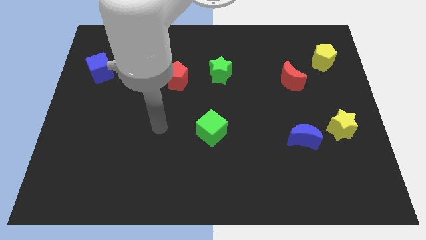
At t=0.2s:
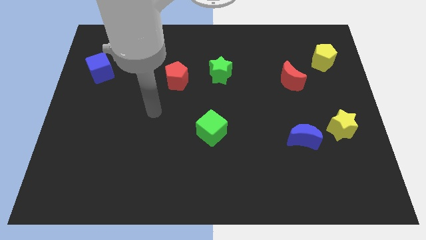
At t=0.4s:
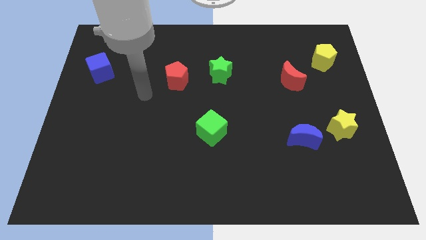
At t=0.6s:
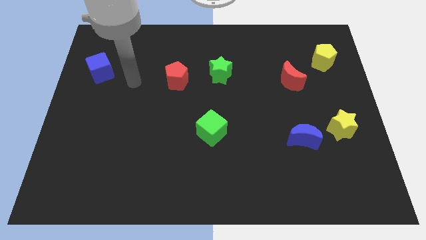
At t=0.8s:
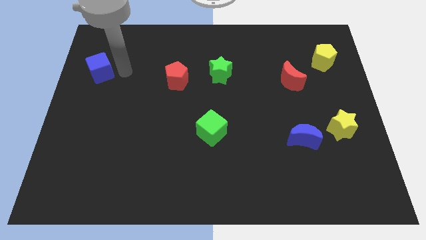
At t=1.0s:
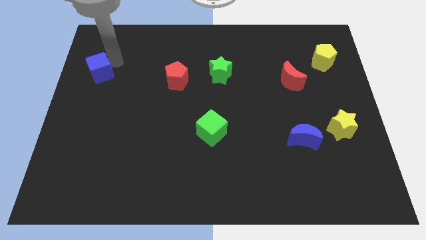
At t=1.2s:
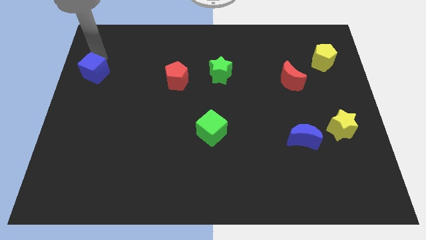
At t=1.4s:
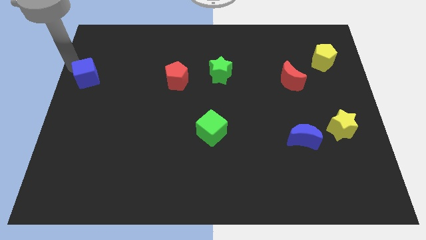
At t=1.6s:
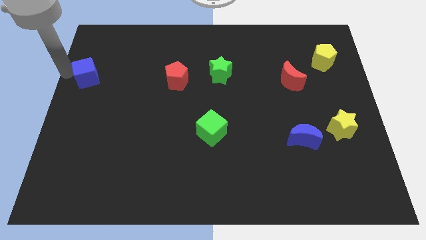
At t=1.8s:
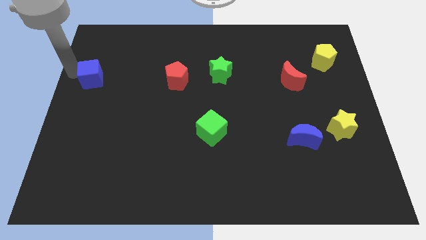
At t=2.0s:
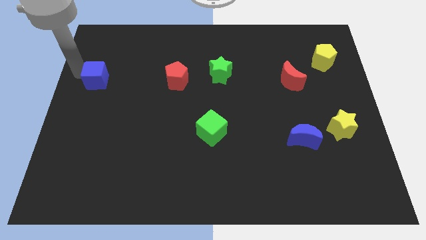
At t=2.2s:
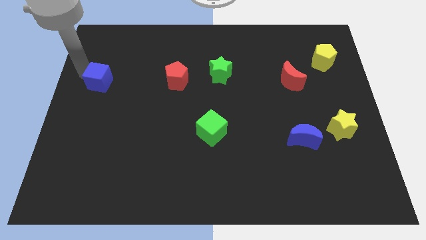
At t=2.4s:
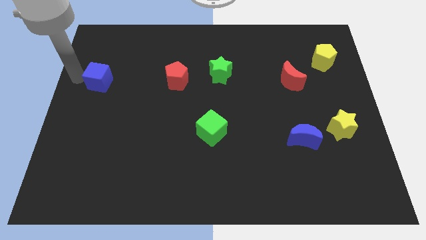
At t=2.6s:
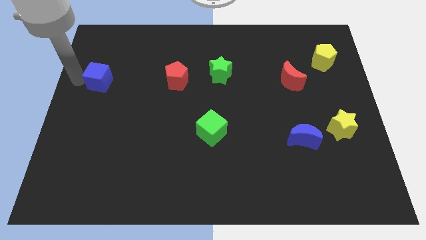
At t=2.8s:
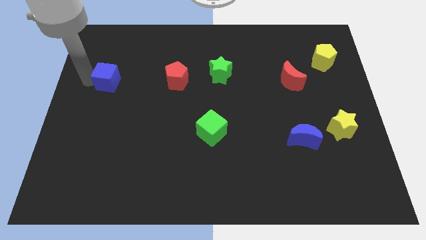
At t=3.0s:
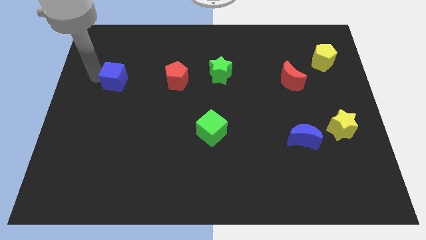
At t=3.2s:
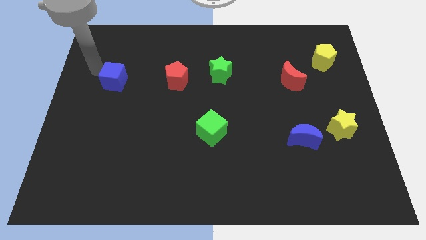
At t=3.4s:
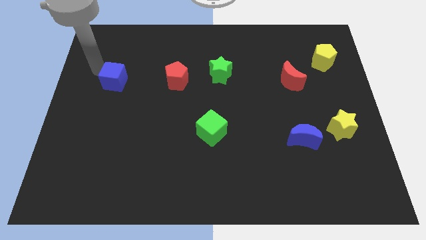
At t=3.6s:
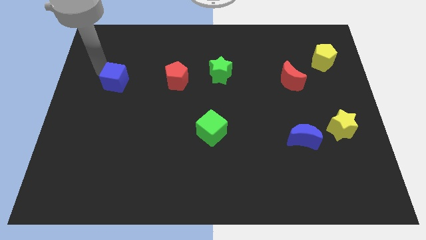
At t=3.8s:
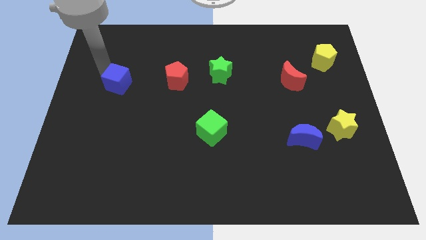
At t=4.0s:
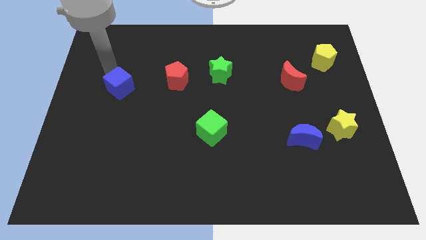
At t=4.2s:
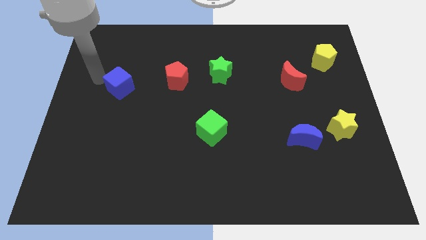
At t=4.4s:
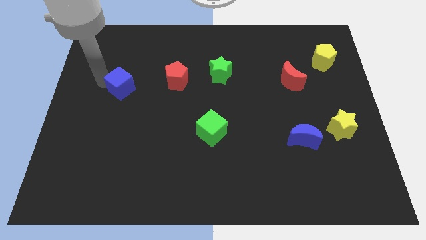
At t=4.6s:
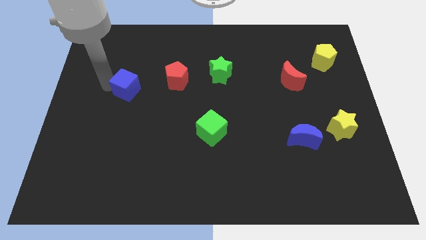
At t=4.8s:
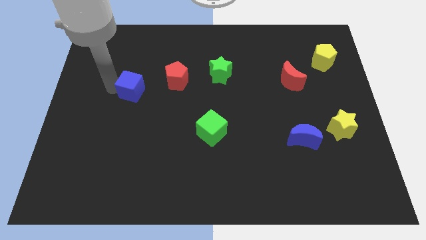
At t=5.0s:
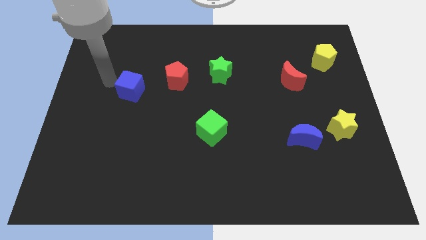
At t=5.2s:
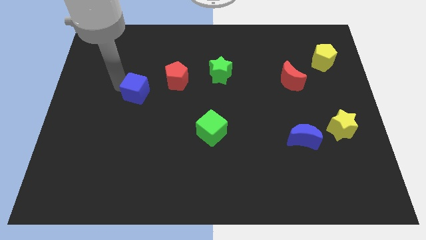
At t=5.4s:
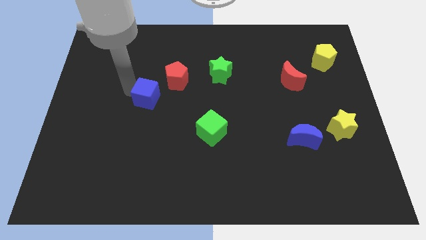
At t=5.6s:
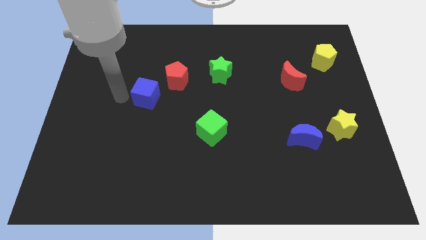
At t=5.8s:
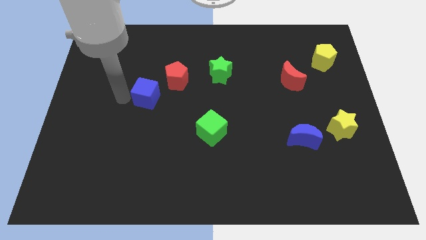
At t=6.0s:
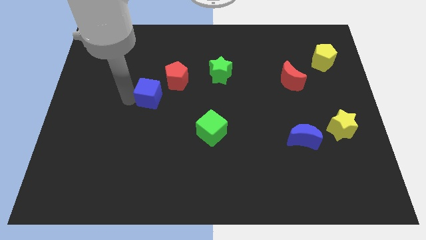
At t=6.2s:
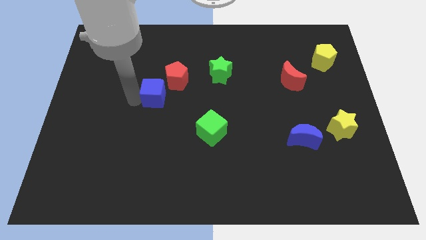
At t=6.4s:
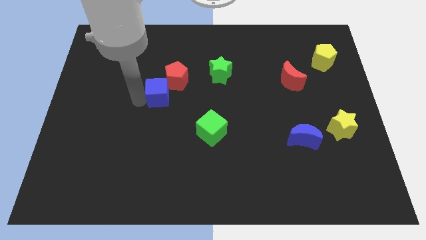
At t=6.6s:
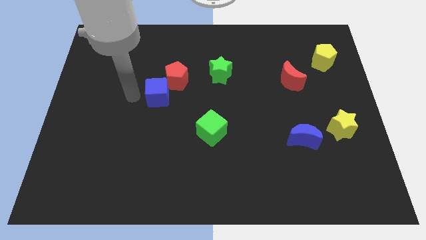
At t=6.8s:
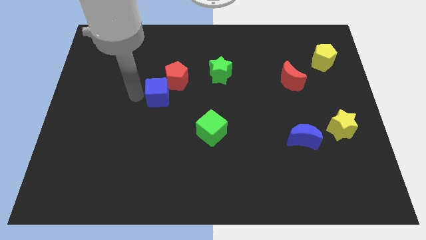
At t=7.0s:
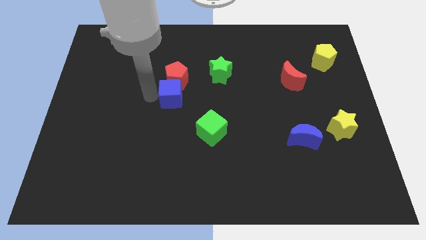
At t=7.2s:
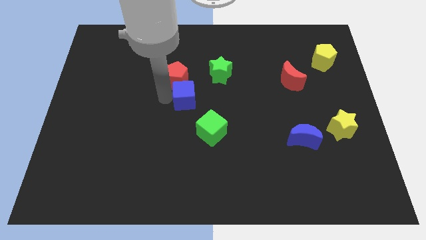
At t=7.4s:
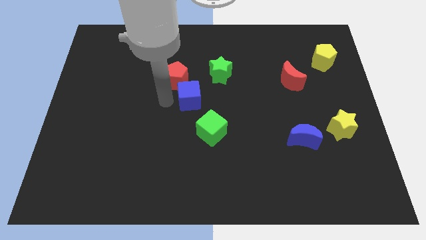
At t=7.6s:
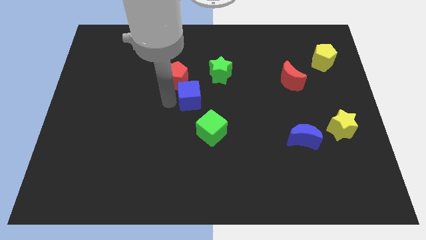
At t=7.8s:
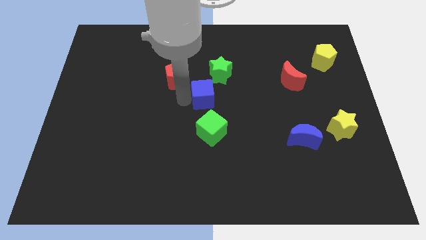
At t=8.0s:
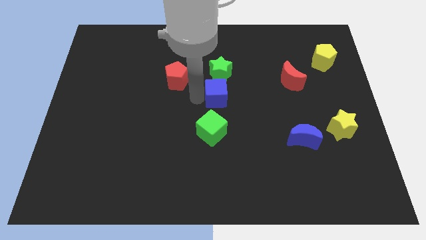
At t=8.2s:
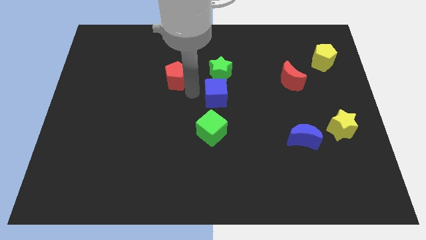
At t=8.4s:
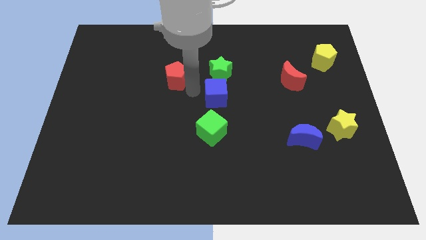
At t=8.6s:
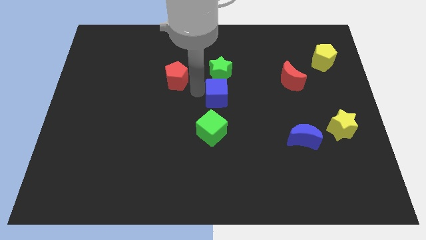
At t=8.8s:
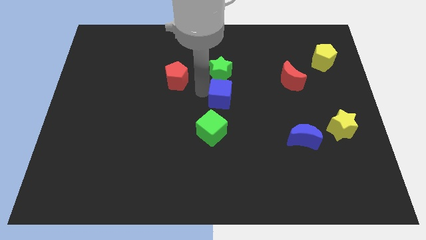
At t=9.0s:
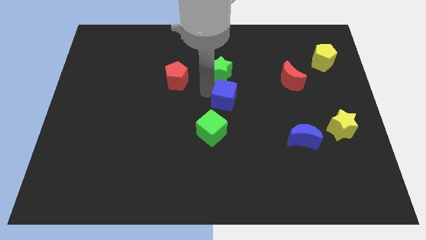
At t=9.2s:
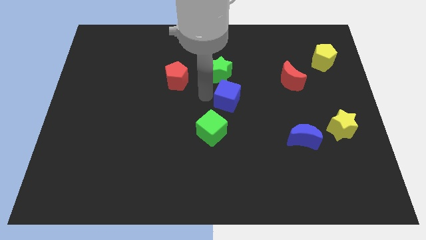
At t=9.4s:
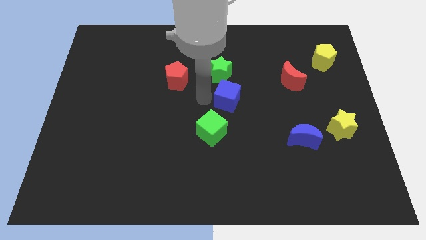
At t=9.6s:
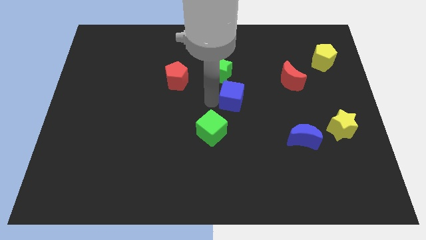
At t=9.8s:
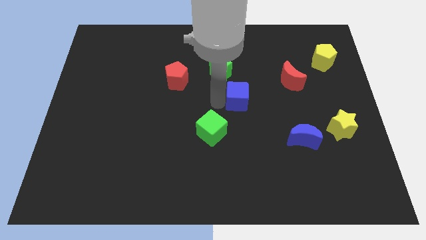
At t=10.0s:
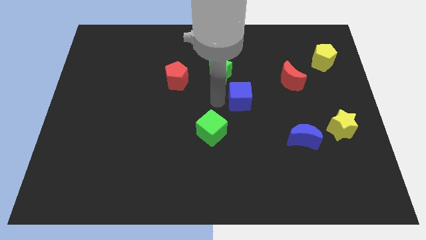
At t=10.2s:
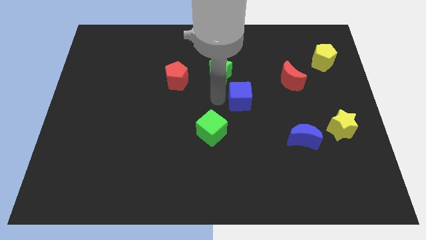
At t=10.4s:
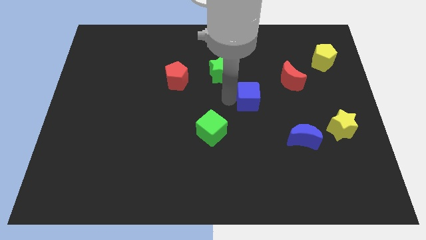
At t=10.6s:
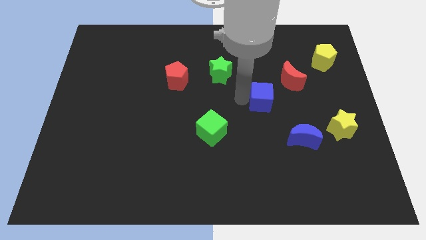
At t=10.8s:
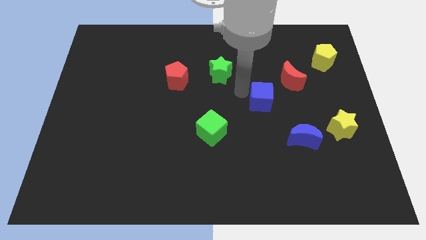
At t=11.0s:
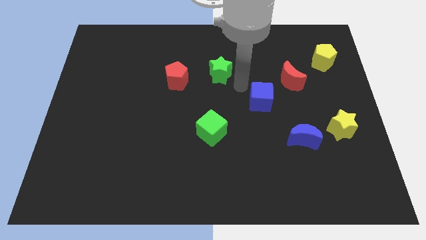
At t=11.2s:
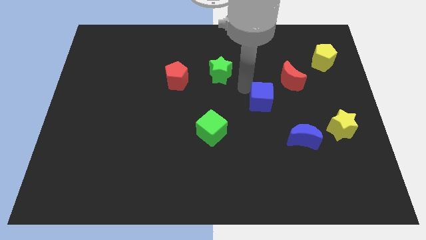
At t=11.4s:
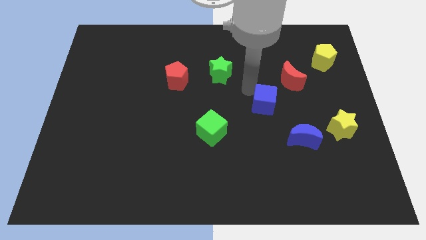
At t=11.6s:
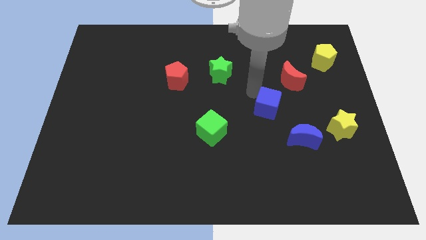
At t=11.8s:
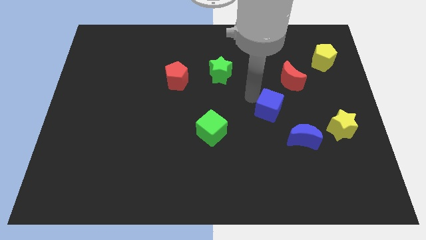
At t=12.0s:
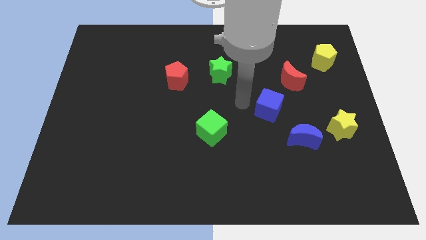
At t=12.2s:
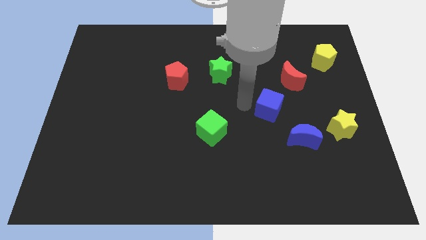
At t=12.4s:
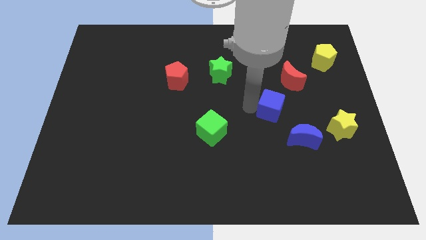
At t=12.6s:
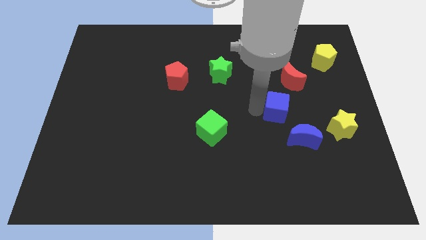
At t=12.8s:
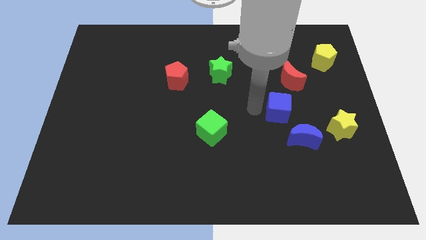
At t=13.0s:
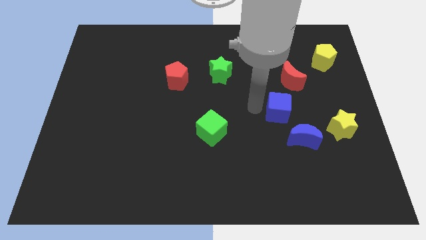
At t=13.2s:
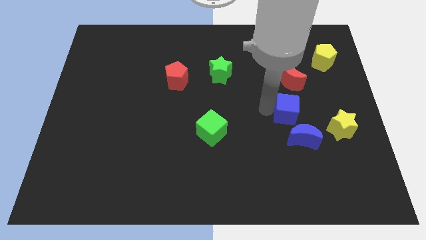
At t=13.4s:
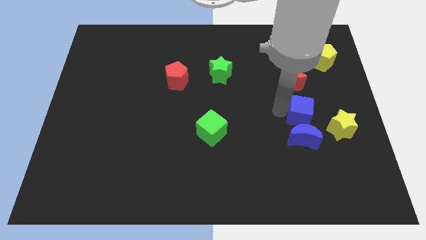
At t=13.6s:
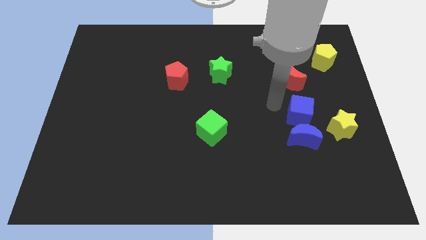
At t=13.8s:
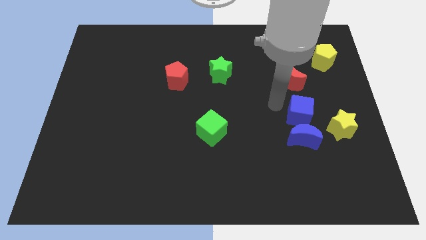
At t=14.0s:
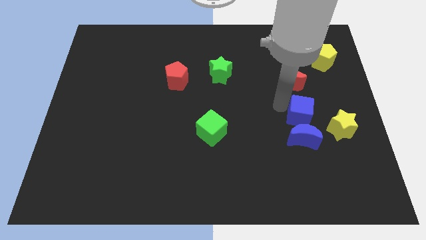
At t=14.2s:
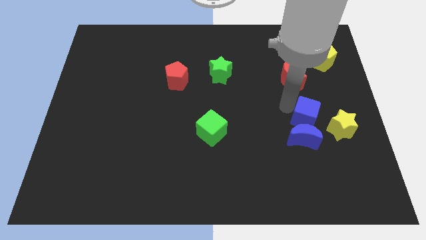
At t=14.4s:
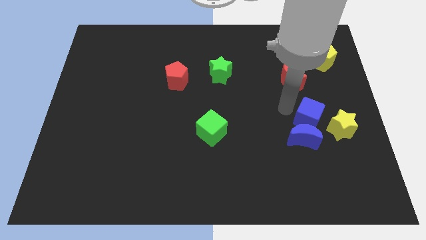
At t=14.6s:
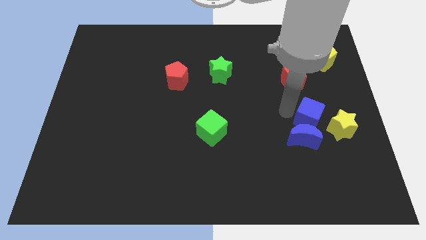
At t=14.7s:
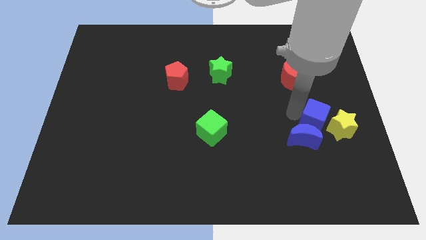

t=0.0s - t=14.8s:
push the blue cube towards the yellow star

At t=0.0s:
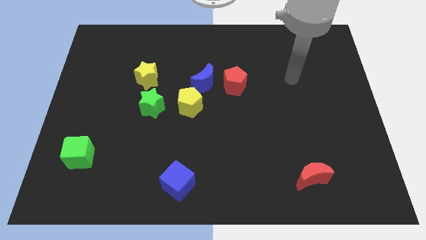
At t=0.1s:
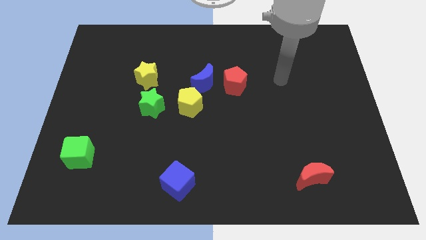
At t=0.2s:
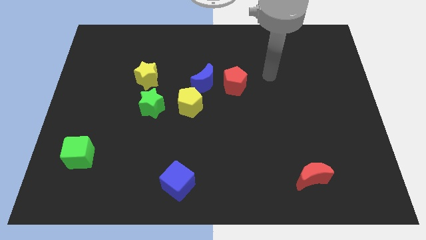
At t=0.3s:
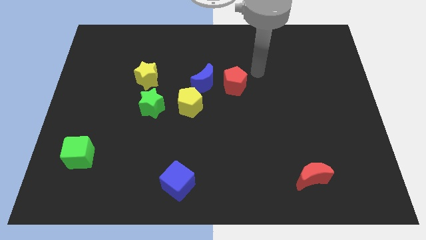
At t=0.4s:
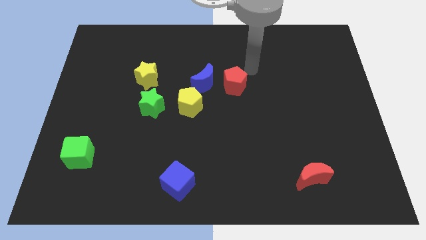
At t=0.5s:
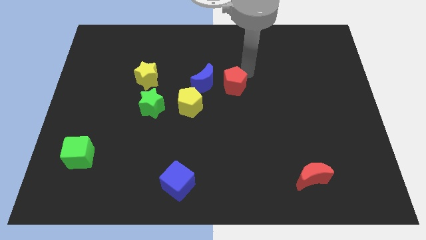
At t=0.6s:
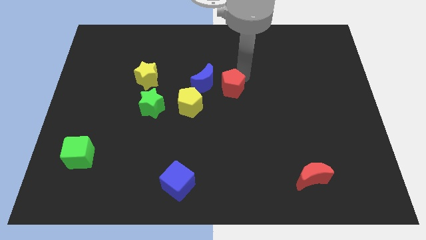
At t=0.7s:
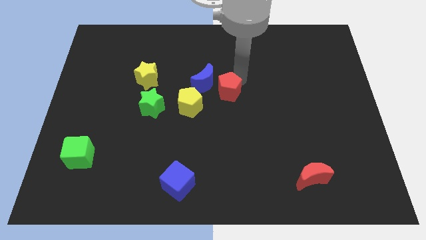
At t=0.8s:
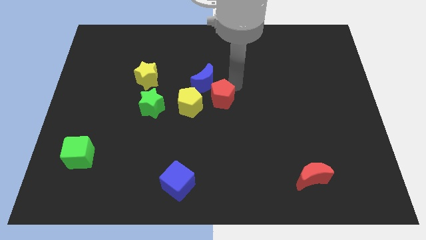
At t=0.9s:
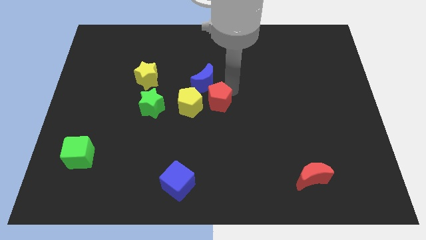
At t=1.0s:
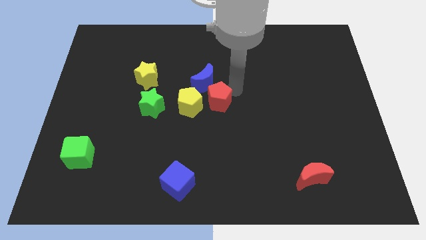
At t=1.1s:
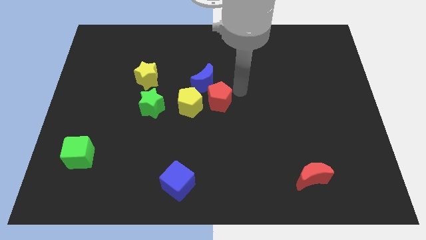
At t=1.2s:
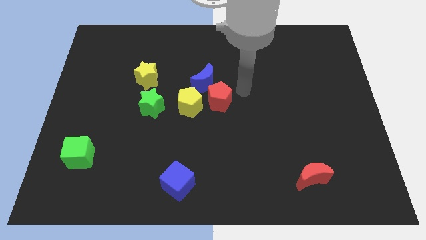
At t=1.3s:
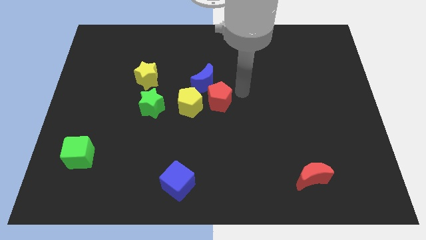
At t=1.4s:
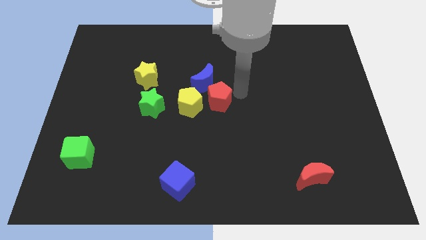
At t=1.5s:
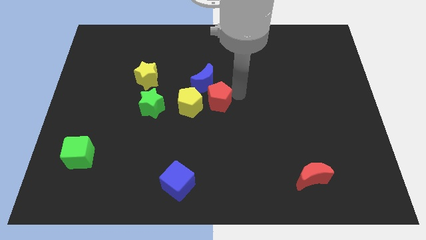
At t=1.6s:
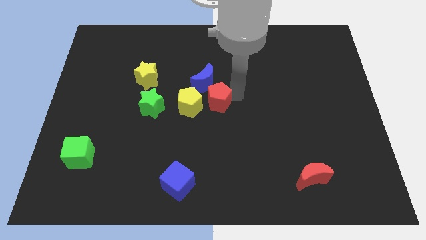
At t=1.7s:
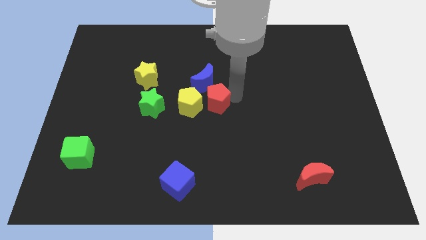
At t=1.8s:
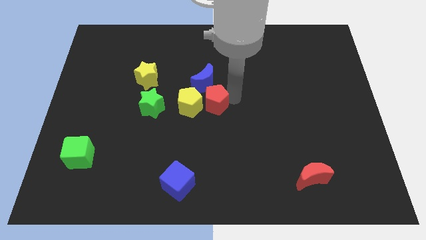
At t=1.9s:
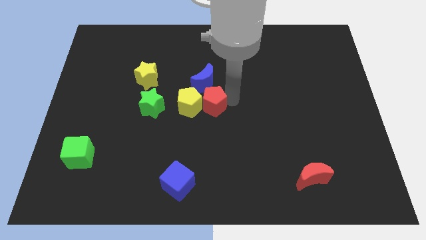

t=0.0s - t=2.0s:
put the red pentagon to the yellow pentagon
